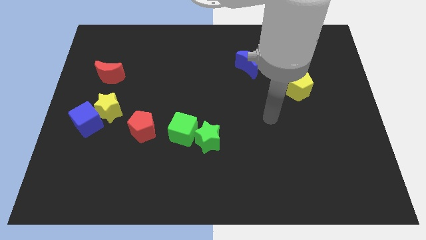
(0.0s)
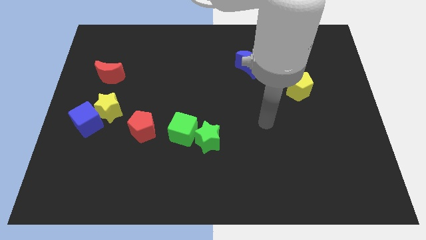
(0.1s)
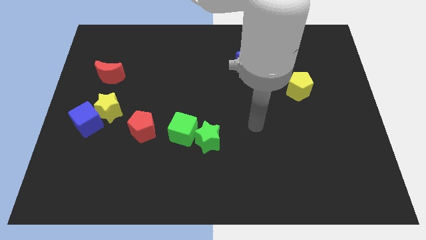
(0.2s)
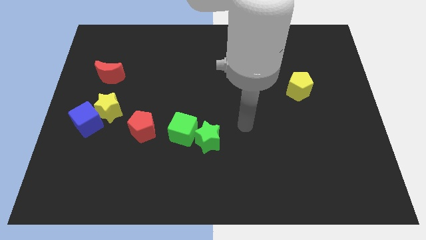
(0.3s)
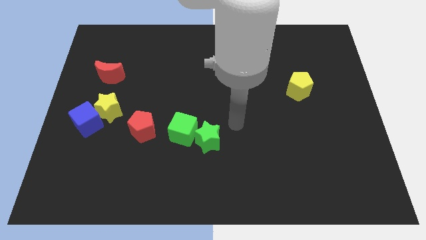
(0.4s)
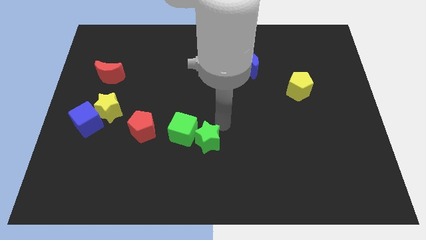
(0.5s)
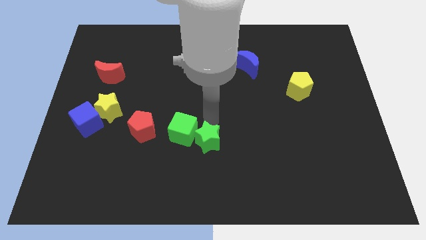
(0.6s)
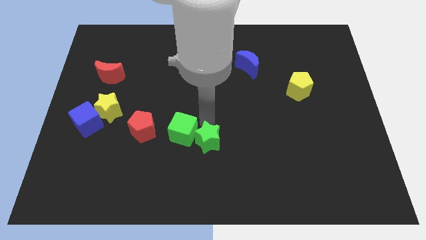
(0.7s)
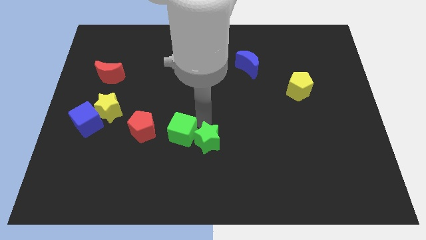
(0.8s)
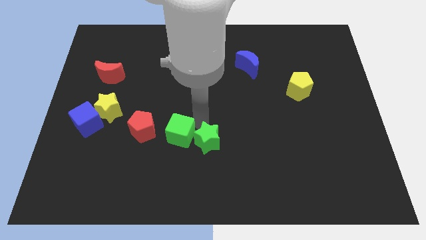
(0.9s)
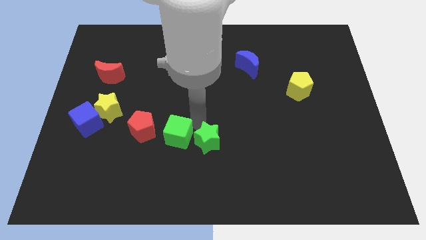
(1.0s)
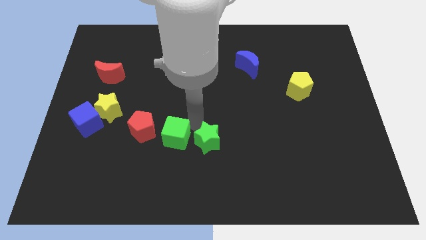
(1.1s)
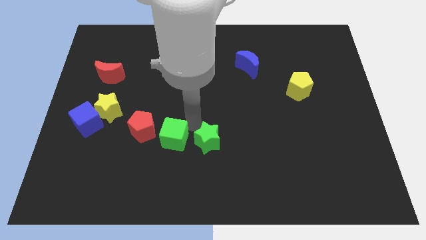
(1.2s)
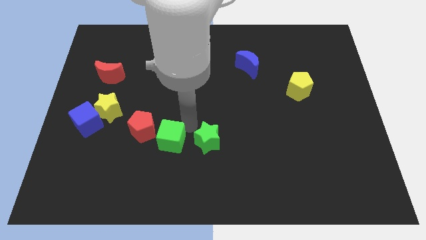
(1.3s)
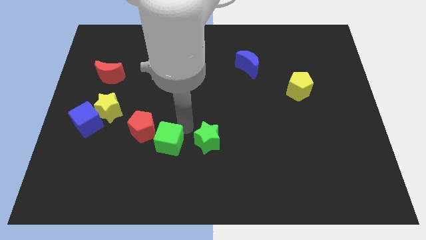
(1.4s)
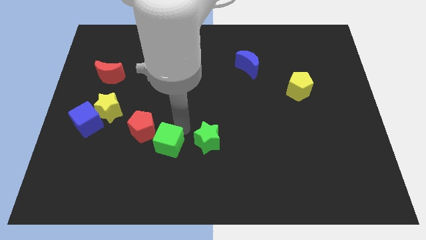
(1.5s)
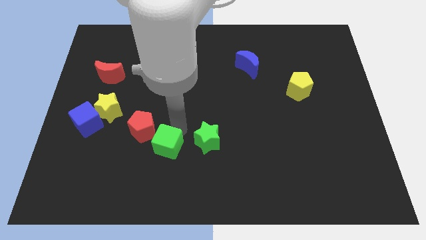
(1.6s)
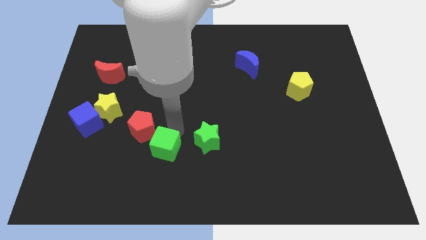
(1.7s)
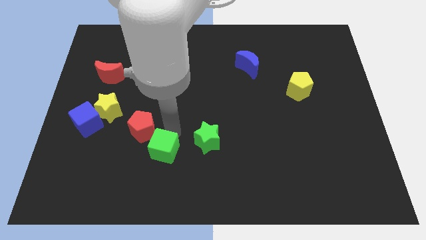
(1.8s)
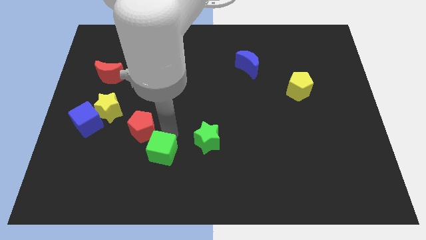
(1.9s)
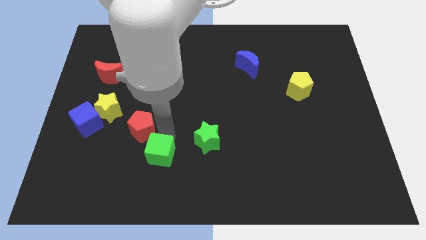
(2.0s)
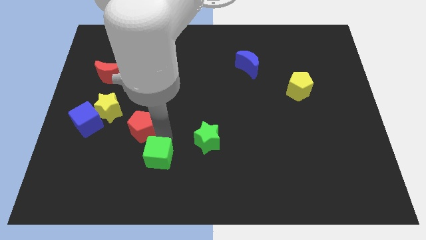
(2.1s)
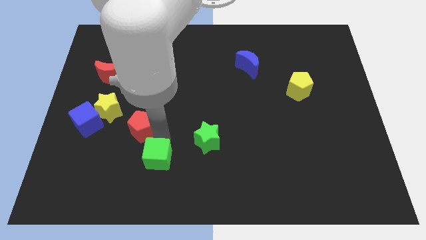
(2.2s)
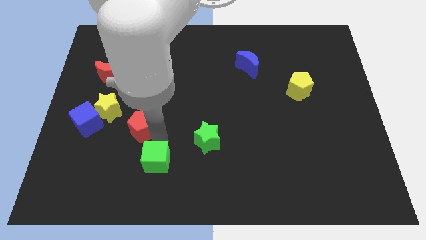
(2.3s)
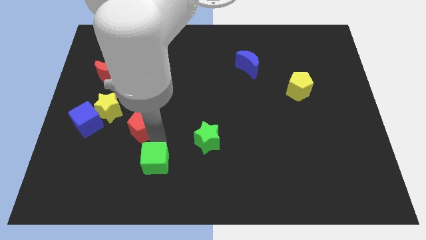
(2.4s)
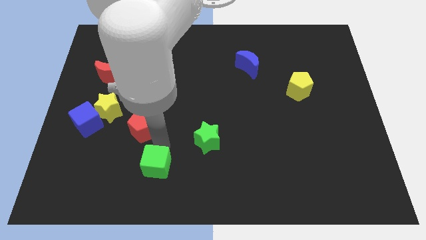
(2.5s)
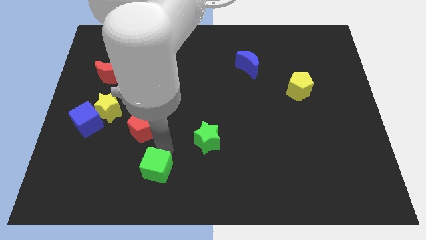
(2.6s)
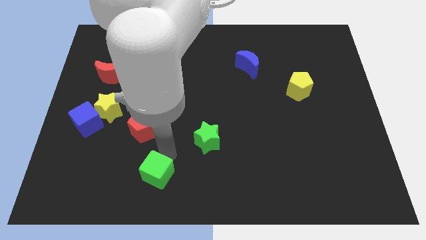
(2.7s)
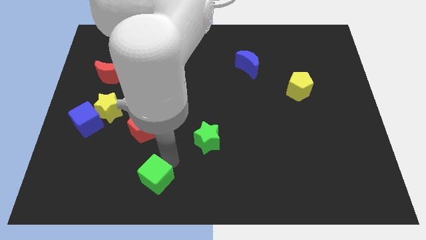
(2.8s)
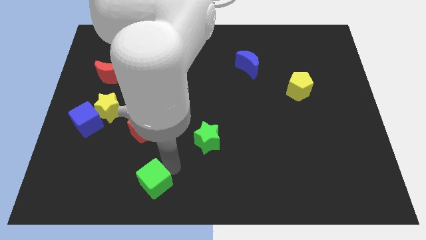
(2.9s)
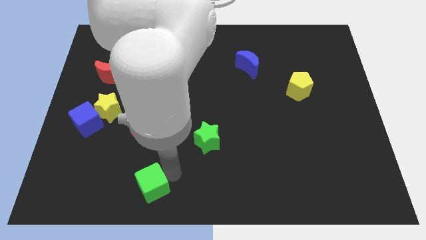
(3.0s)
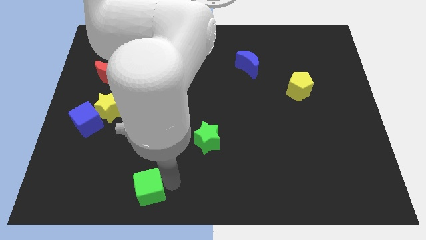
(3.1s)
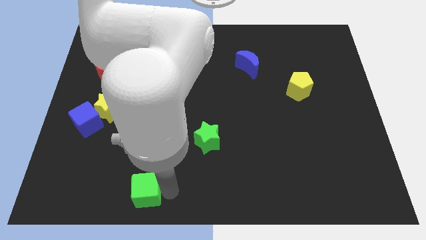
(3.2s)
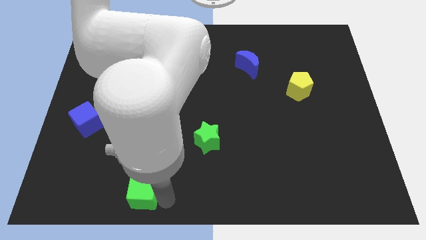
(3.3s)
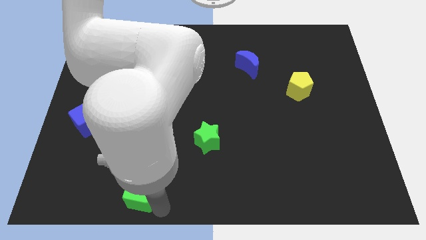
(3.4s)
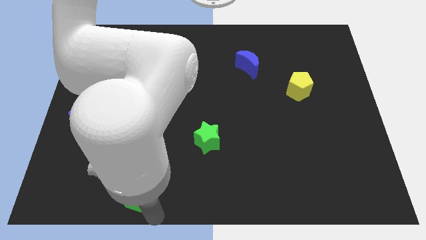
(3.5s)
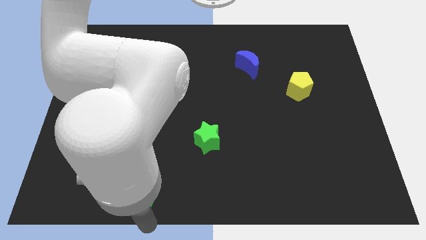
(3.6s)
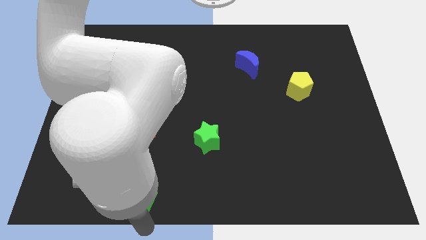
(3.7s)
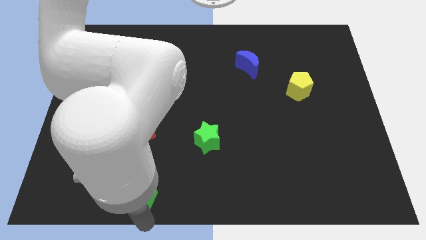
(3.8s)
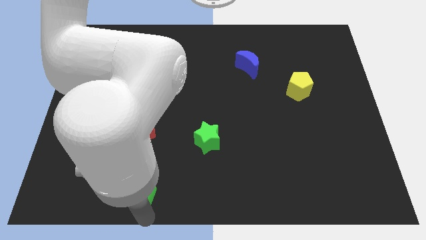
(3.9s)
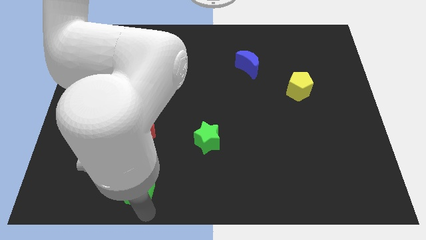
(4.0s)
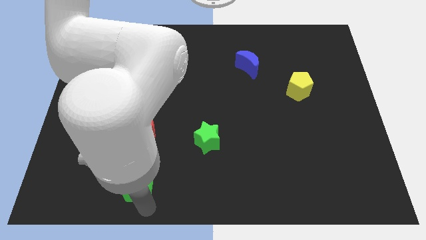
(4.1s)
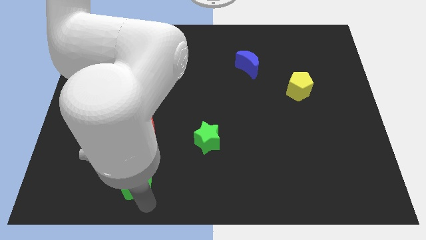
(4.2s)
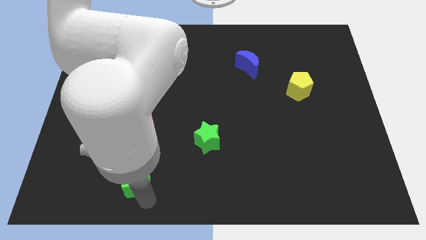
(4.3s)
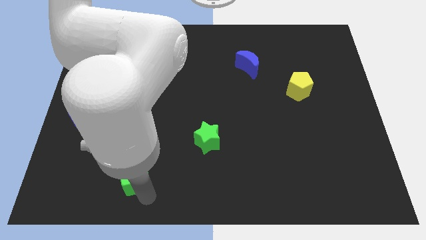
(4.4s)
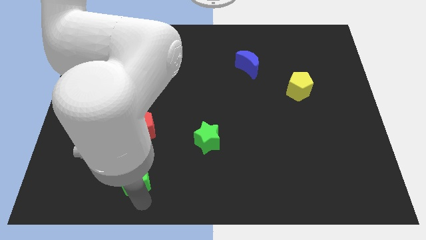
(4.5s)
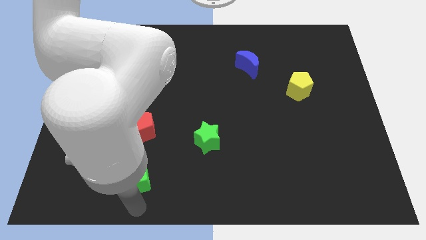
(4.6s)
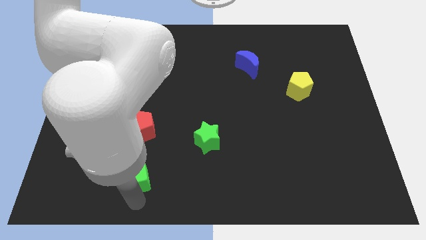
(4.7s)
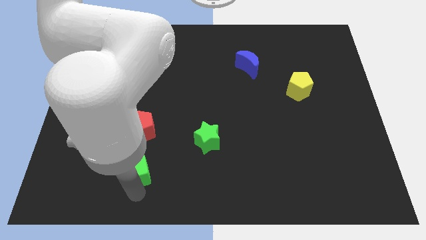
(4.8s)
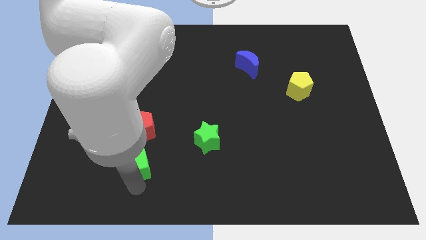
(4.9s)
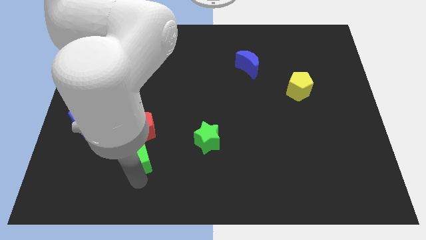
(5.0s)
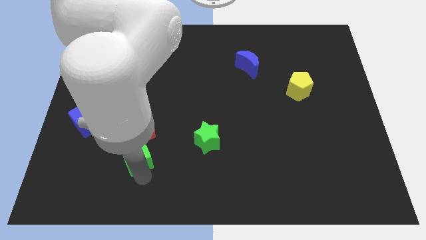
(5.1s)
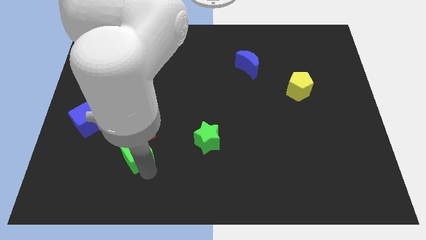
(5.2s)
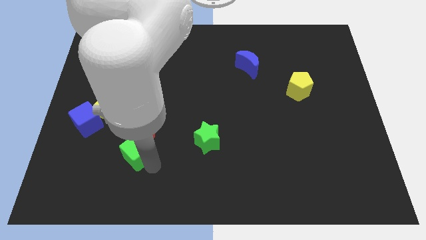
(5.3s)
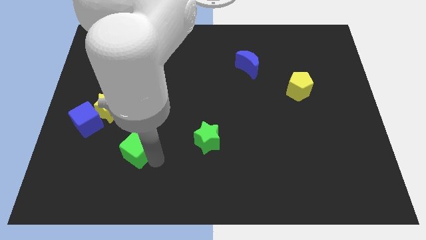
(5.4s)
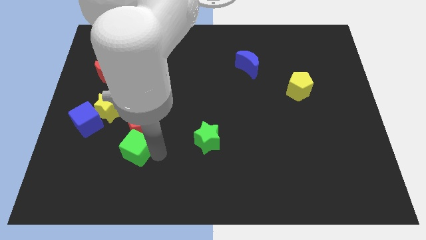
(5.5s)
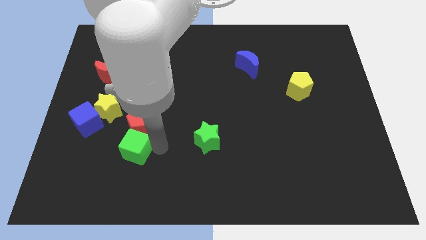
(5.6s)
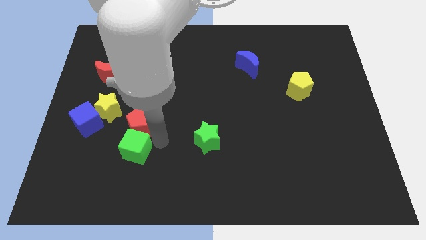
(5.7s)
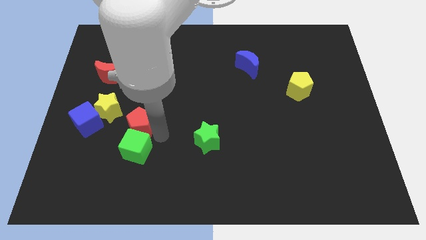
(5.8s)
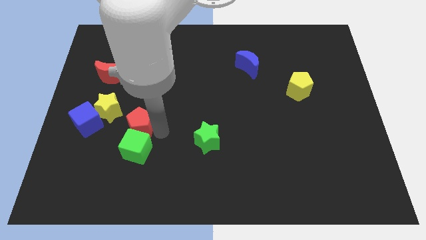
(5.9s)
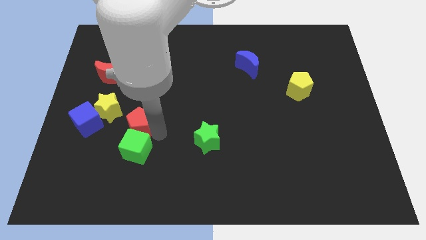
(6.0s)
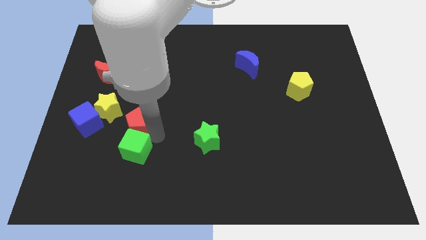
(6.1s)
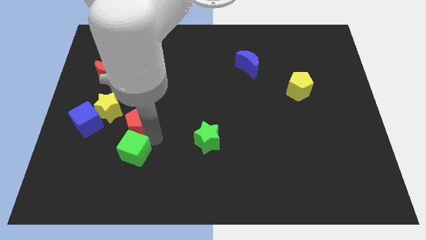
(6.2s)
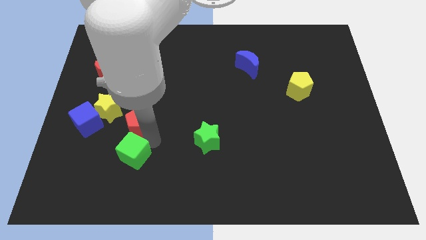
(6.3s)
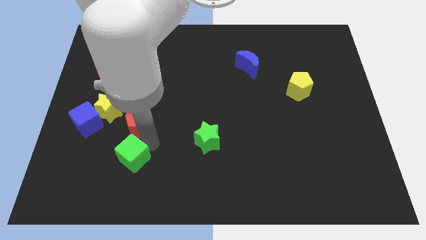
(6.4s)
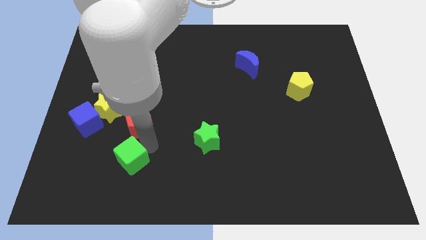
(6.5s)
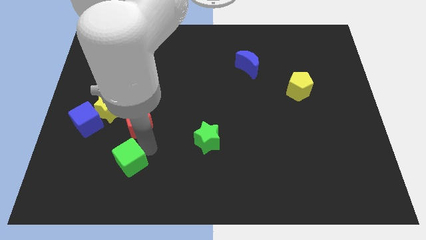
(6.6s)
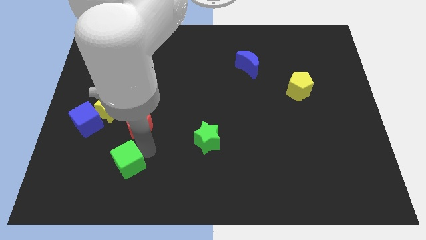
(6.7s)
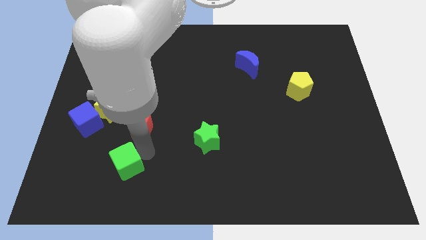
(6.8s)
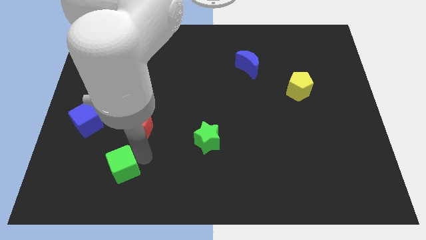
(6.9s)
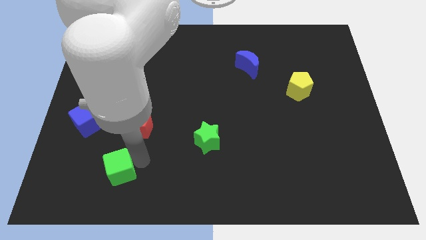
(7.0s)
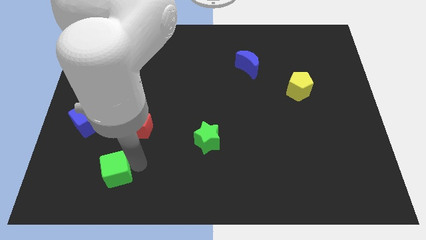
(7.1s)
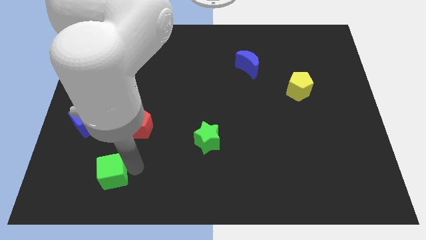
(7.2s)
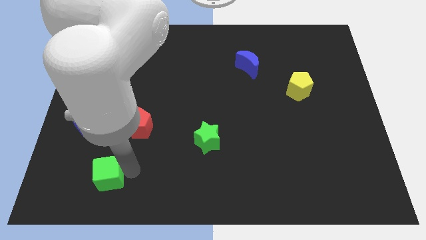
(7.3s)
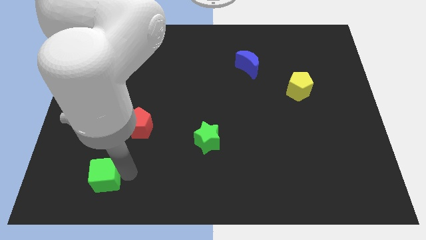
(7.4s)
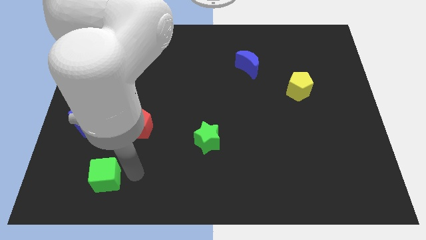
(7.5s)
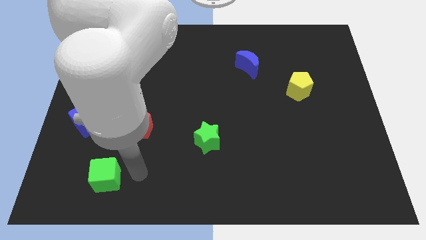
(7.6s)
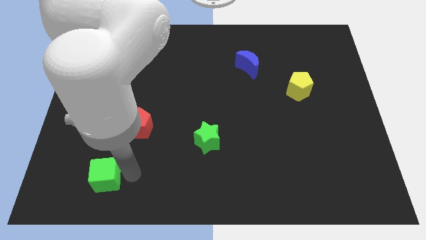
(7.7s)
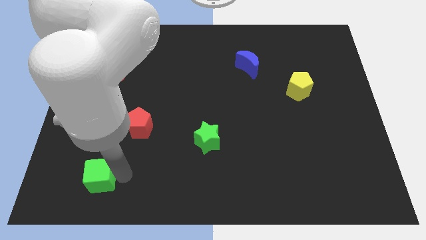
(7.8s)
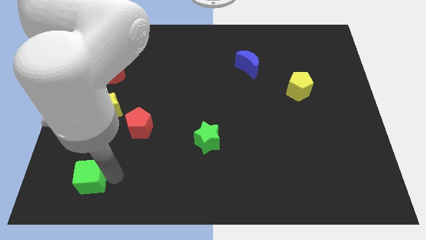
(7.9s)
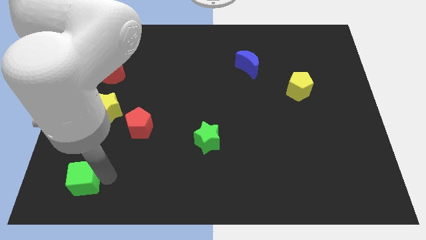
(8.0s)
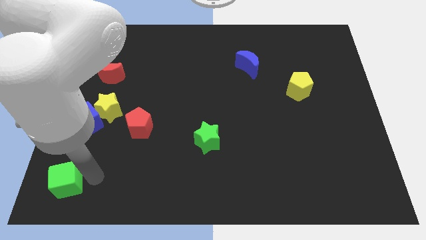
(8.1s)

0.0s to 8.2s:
move the green cube to the bottom left of the board
